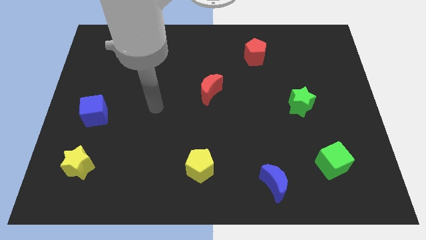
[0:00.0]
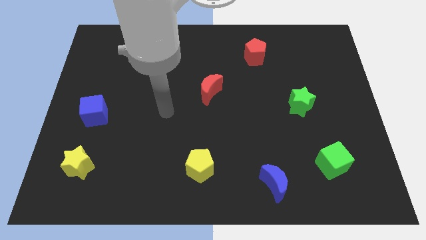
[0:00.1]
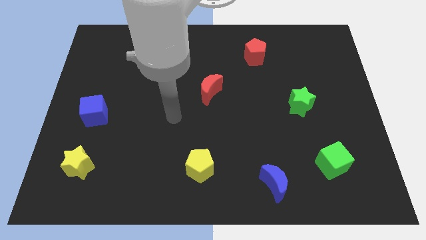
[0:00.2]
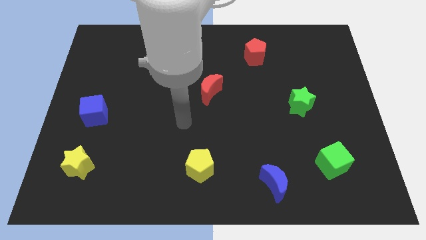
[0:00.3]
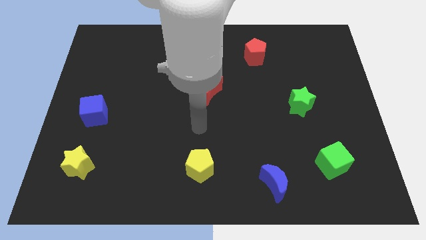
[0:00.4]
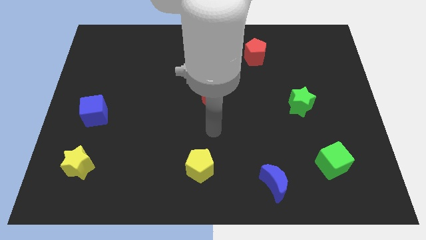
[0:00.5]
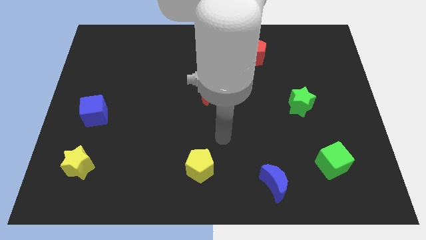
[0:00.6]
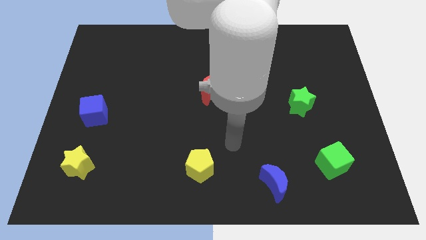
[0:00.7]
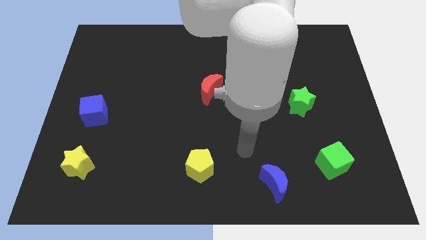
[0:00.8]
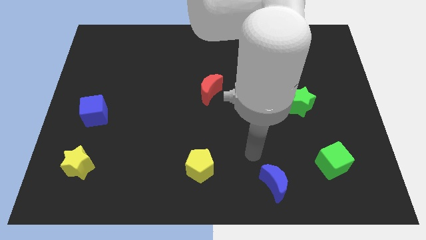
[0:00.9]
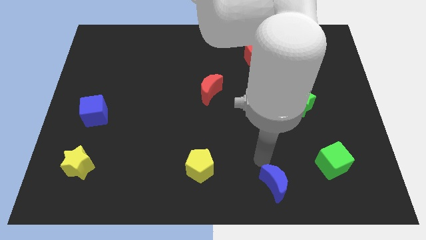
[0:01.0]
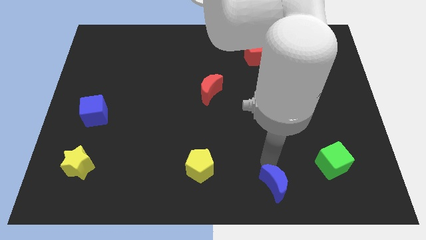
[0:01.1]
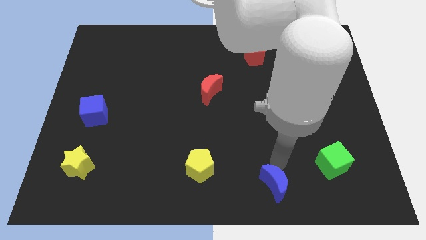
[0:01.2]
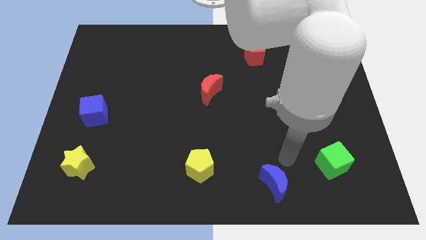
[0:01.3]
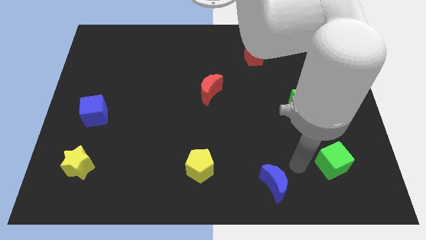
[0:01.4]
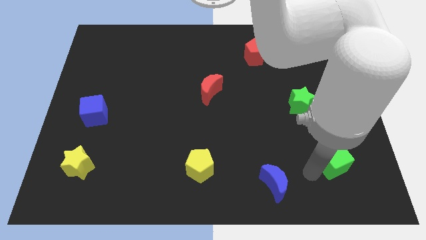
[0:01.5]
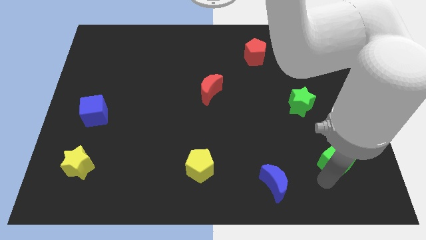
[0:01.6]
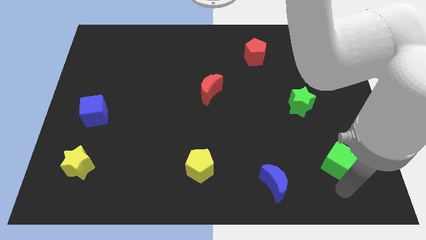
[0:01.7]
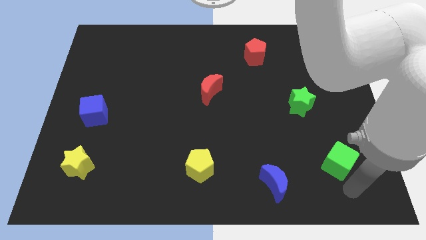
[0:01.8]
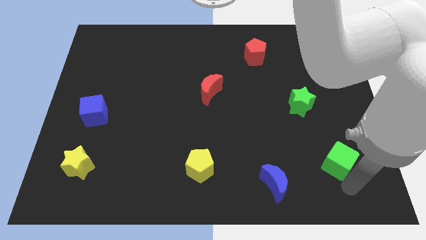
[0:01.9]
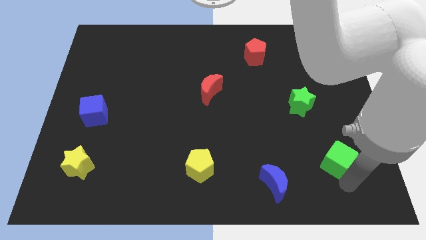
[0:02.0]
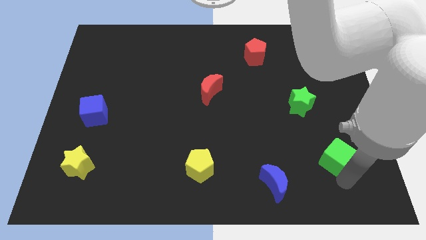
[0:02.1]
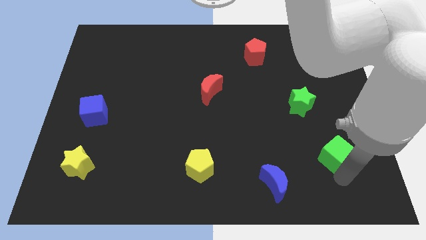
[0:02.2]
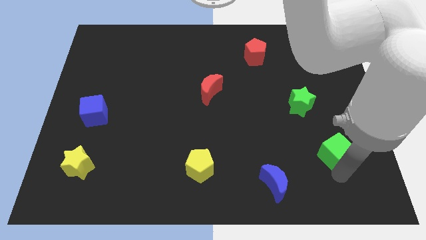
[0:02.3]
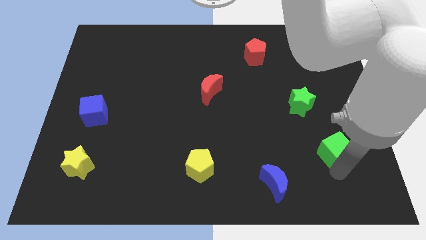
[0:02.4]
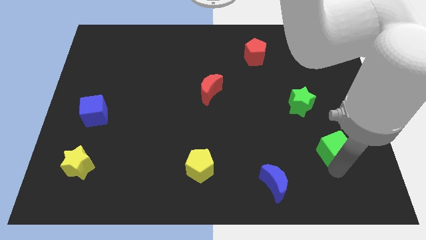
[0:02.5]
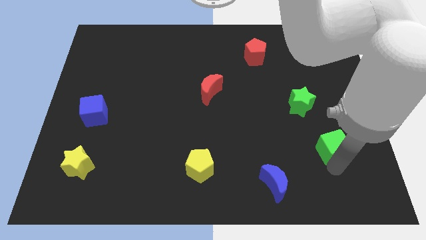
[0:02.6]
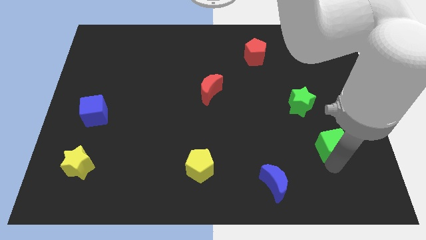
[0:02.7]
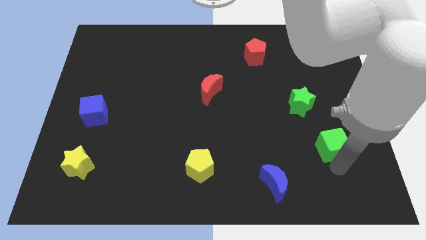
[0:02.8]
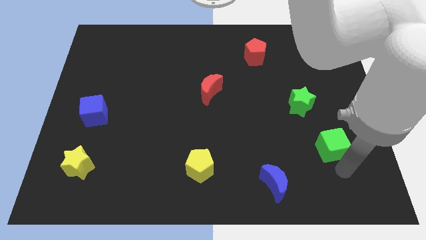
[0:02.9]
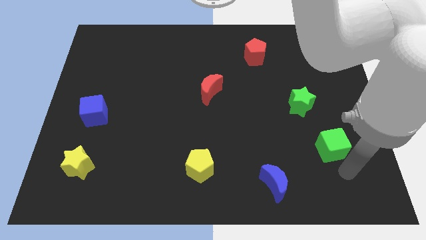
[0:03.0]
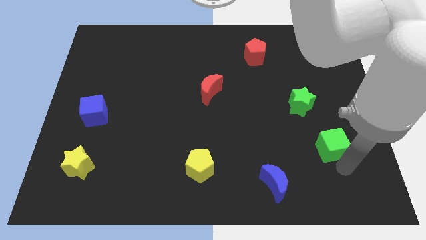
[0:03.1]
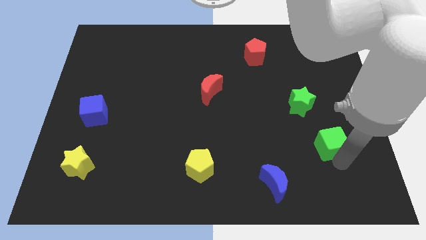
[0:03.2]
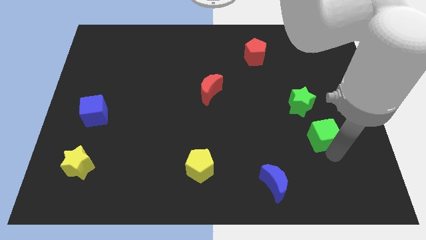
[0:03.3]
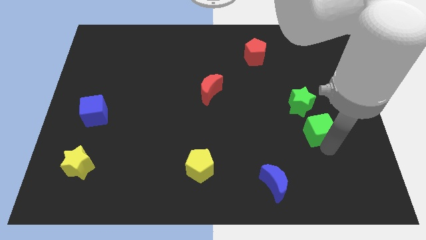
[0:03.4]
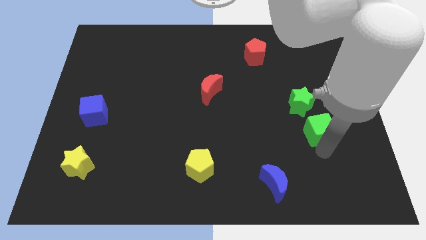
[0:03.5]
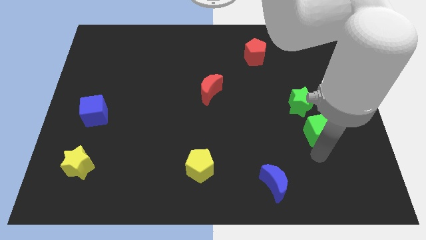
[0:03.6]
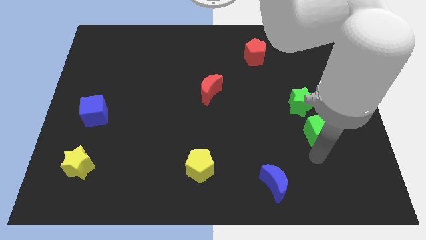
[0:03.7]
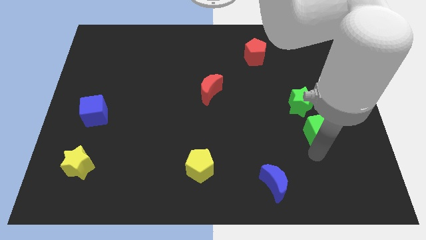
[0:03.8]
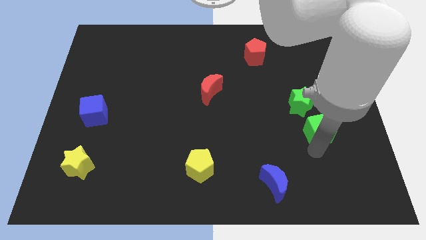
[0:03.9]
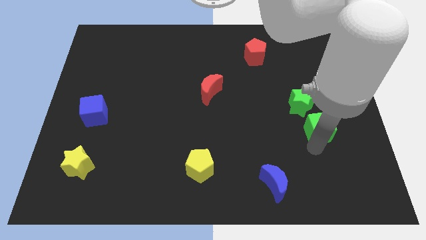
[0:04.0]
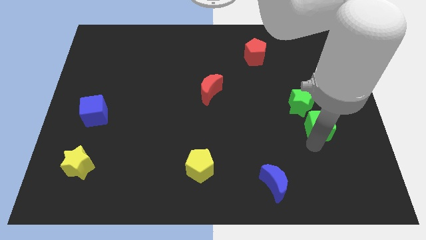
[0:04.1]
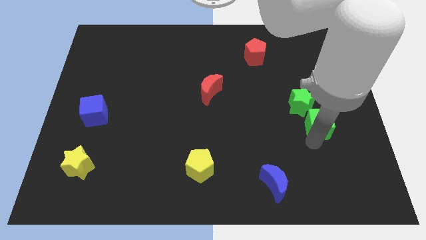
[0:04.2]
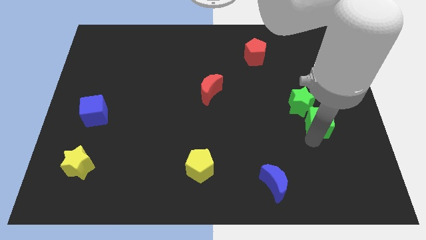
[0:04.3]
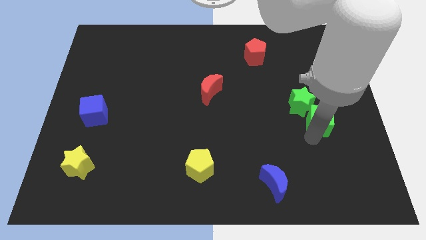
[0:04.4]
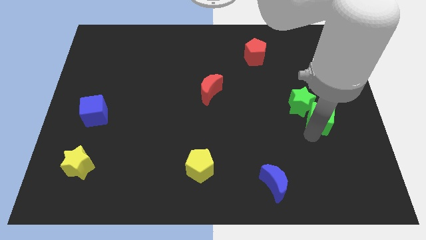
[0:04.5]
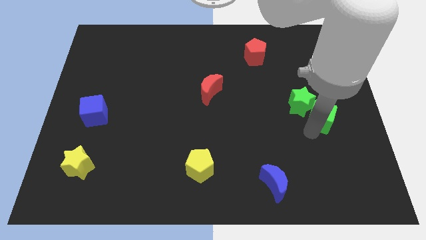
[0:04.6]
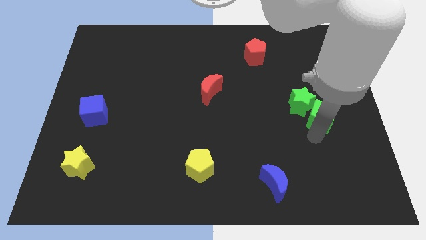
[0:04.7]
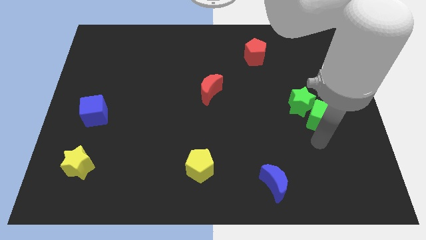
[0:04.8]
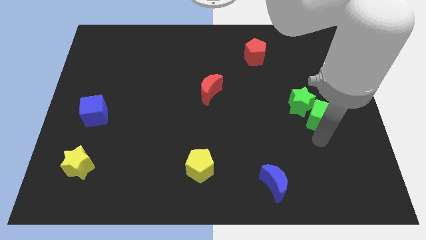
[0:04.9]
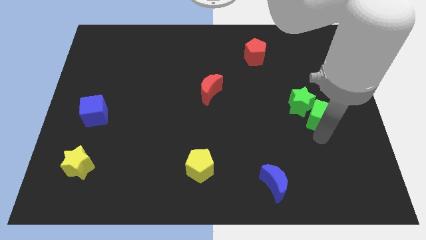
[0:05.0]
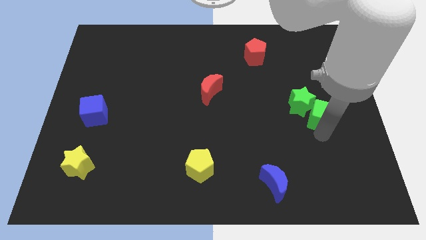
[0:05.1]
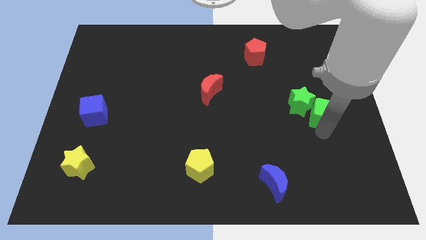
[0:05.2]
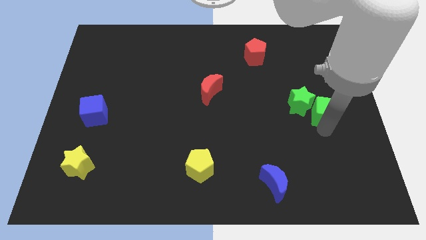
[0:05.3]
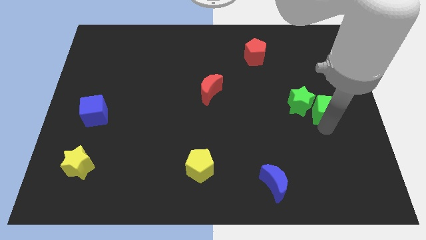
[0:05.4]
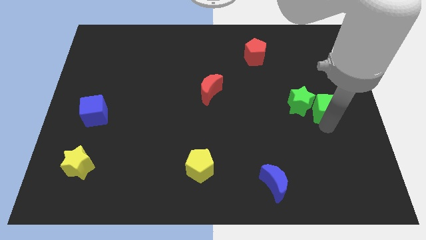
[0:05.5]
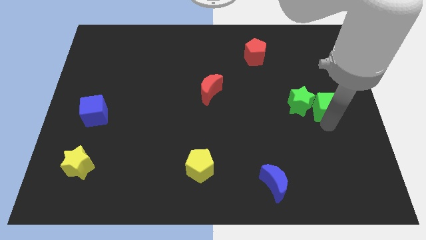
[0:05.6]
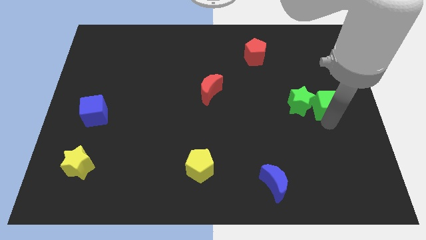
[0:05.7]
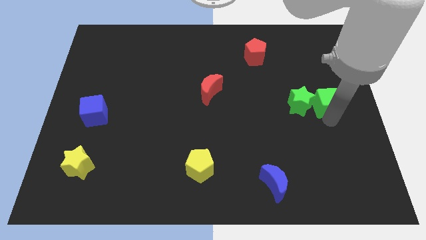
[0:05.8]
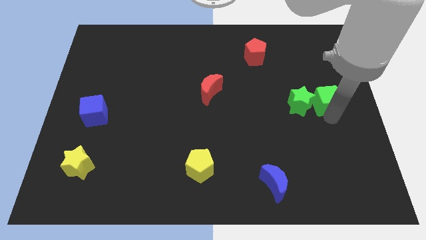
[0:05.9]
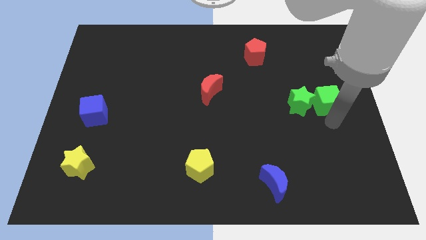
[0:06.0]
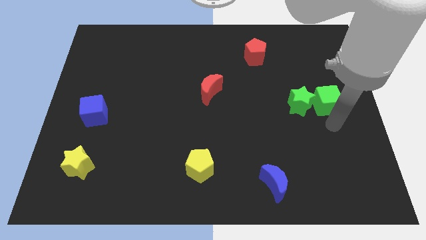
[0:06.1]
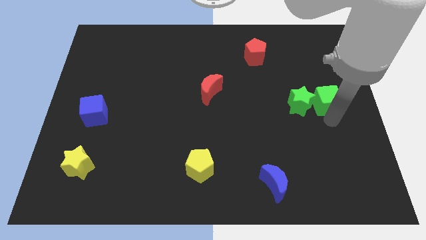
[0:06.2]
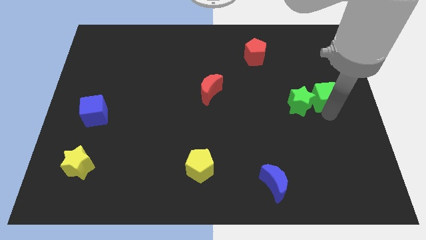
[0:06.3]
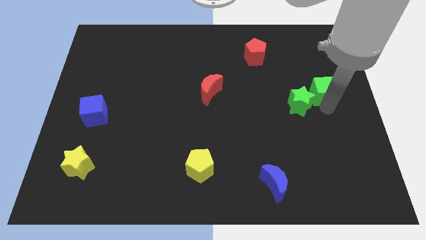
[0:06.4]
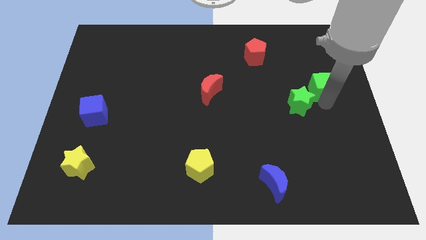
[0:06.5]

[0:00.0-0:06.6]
slide the green cube upwards

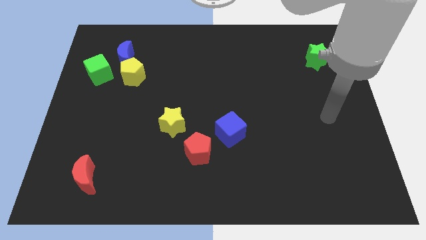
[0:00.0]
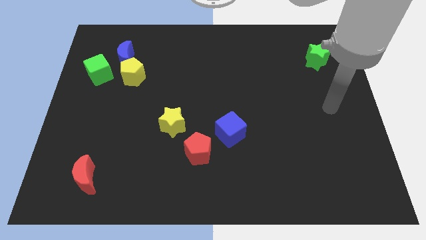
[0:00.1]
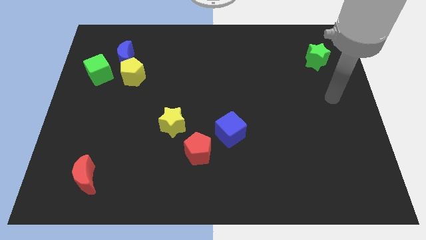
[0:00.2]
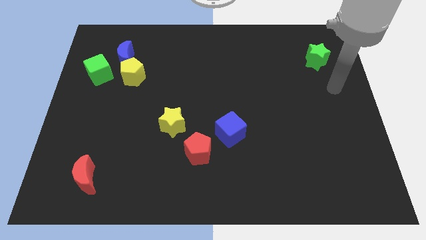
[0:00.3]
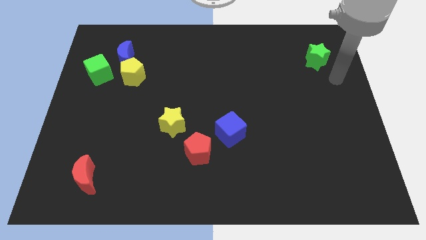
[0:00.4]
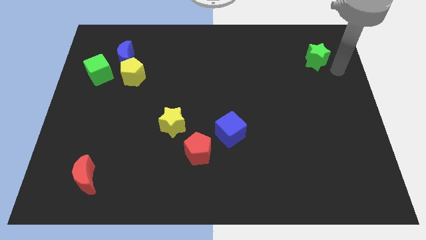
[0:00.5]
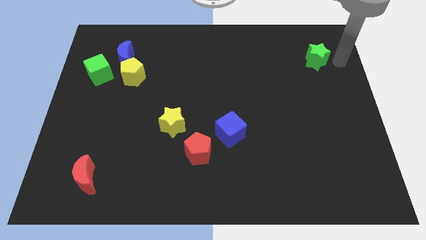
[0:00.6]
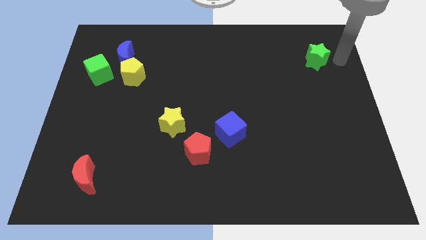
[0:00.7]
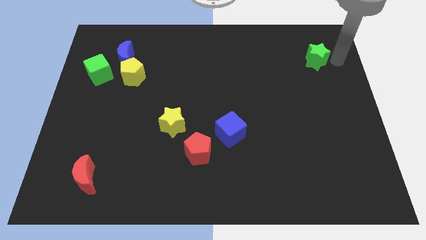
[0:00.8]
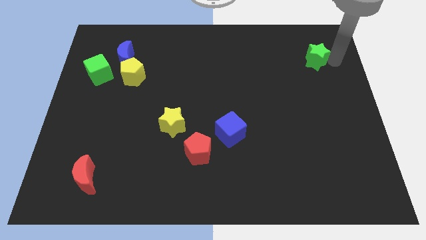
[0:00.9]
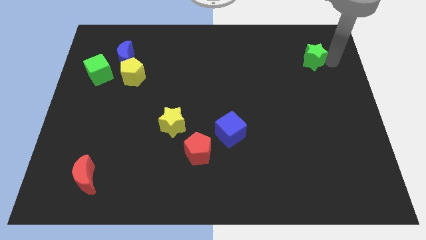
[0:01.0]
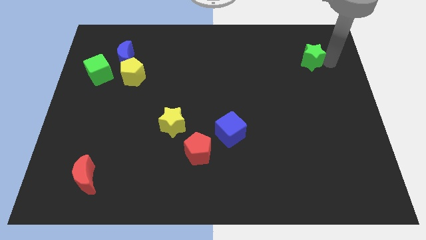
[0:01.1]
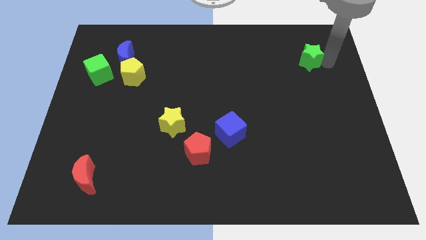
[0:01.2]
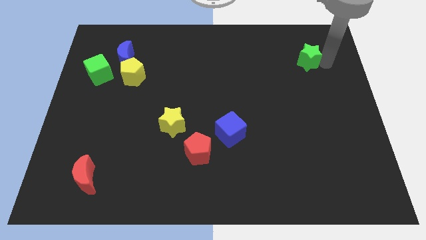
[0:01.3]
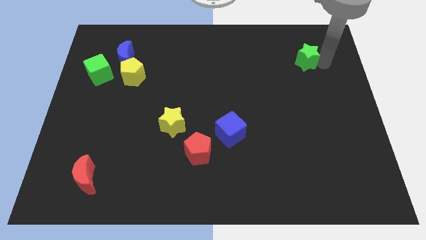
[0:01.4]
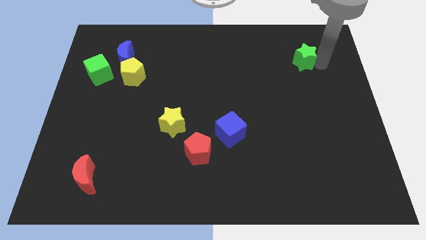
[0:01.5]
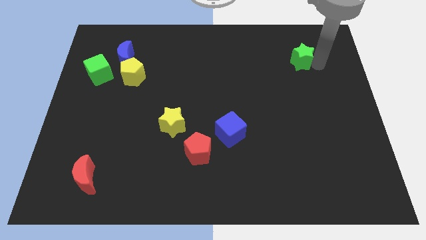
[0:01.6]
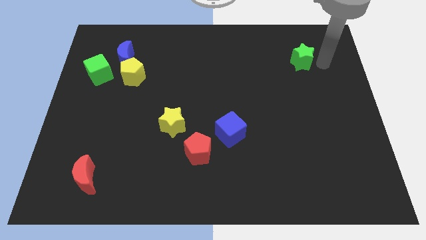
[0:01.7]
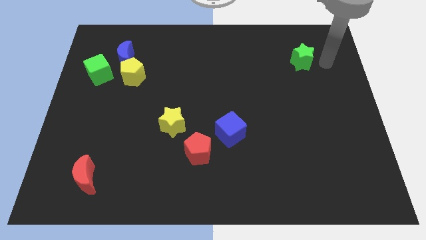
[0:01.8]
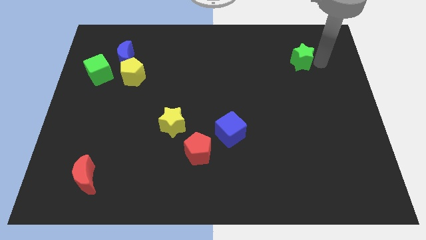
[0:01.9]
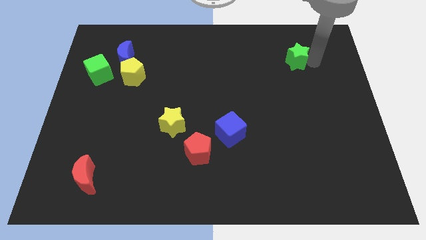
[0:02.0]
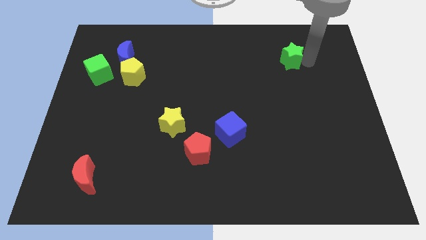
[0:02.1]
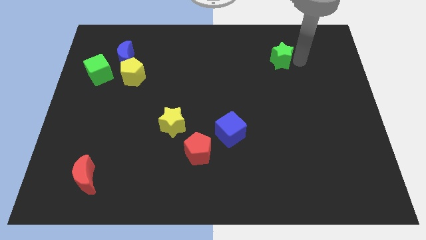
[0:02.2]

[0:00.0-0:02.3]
move the green star a little bit left
